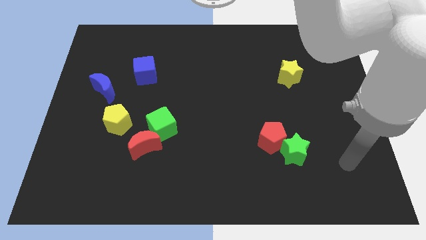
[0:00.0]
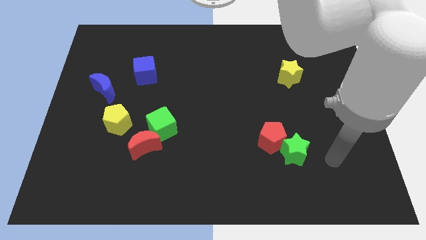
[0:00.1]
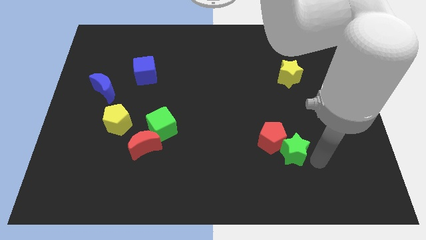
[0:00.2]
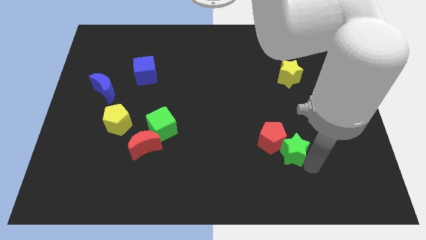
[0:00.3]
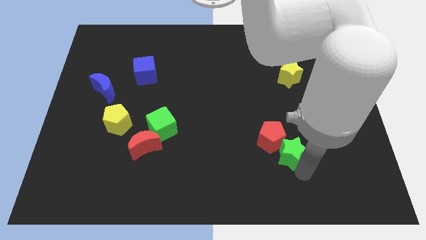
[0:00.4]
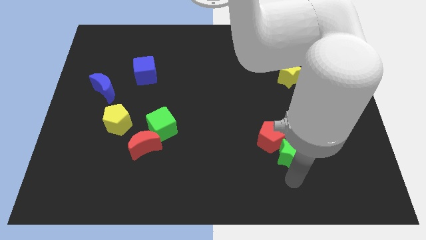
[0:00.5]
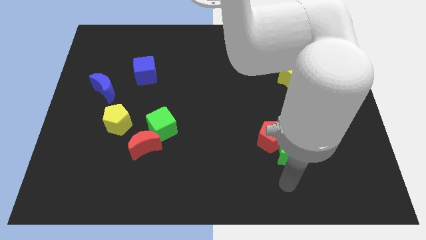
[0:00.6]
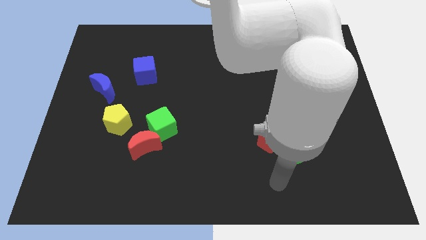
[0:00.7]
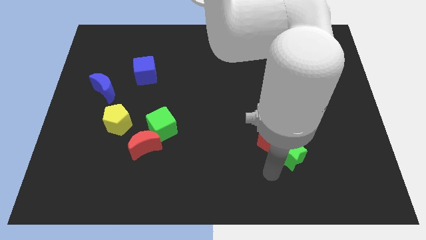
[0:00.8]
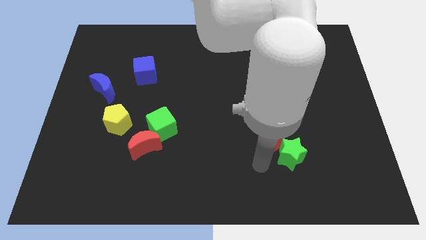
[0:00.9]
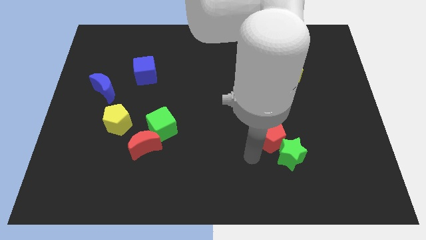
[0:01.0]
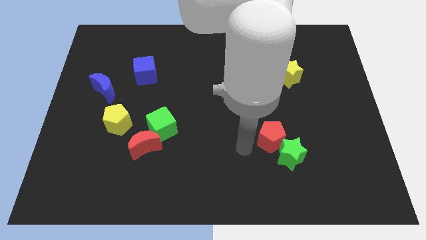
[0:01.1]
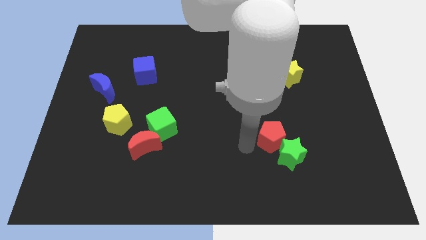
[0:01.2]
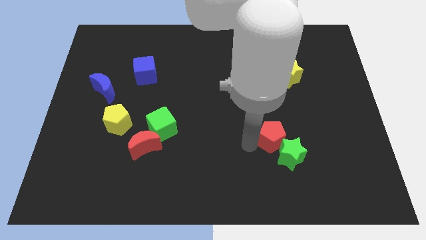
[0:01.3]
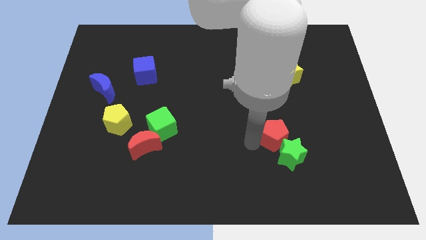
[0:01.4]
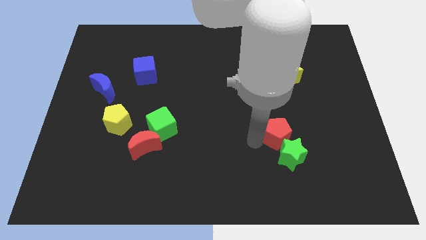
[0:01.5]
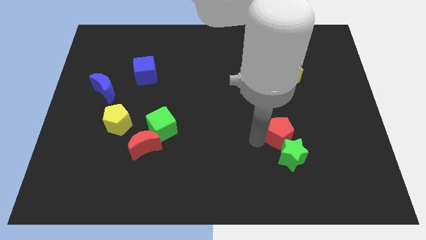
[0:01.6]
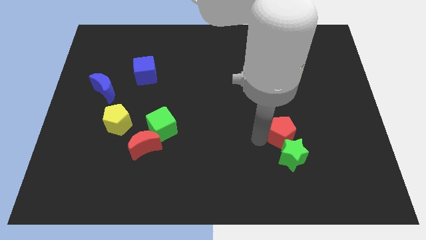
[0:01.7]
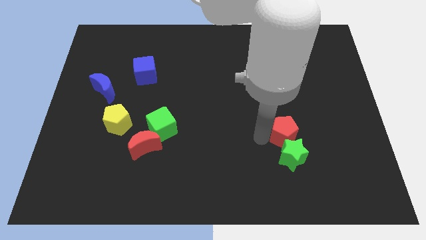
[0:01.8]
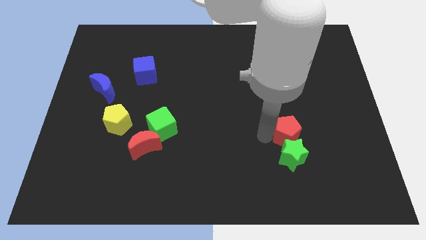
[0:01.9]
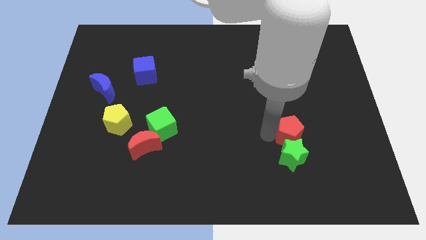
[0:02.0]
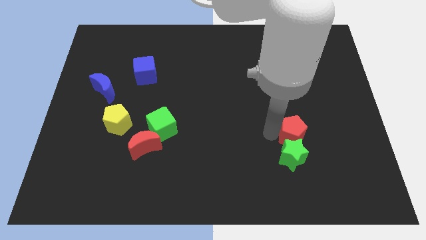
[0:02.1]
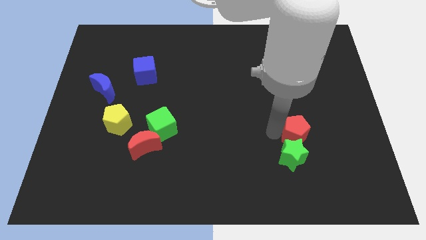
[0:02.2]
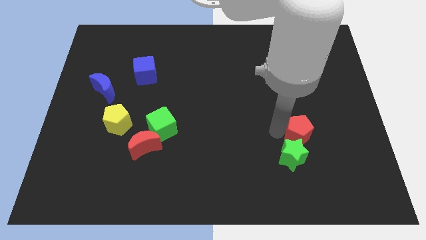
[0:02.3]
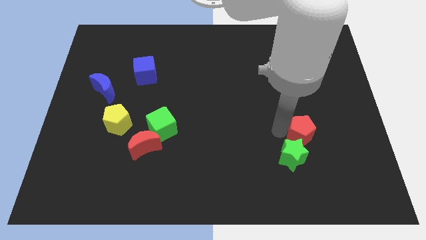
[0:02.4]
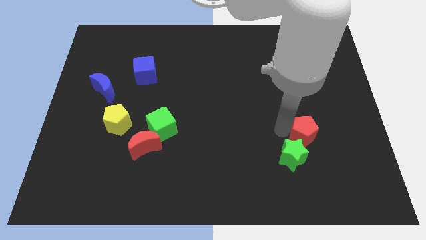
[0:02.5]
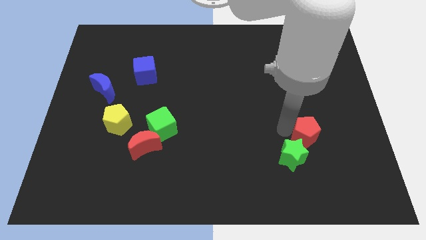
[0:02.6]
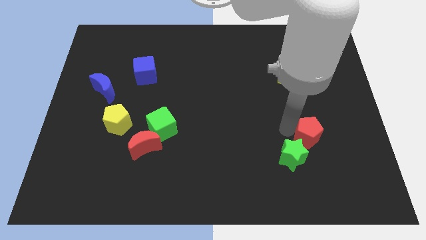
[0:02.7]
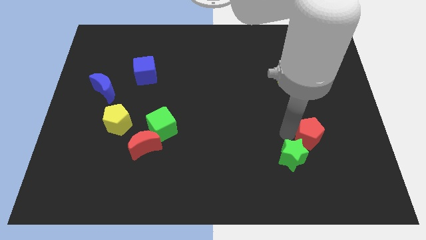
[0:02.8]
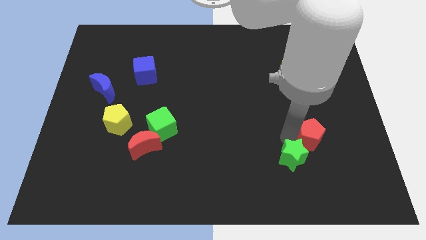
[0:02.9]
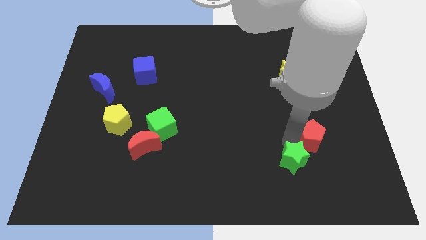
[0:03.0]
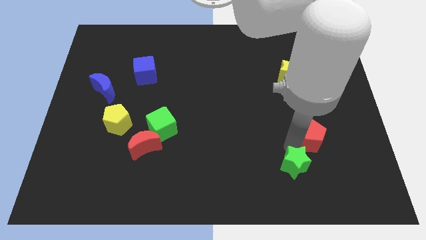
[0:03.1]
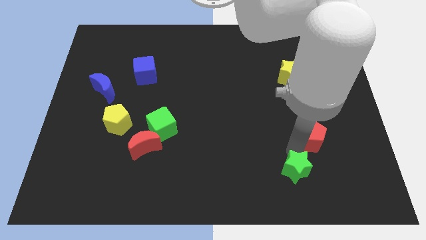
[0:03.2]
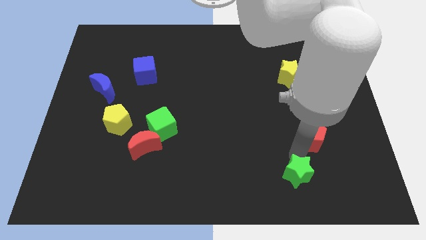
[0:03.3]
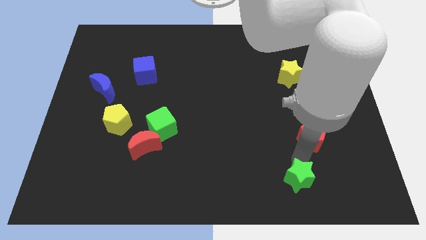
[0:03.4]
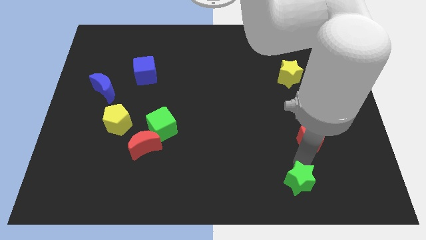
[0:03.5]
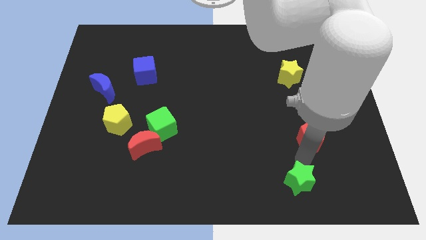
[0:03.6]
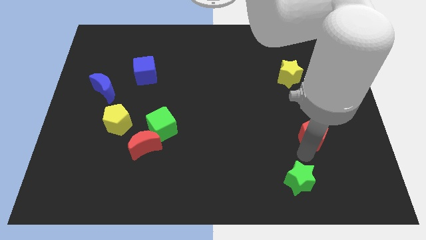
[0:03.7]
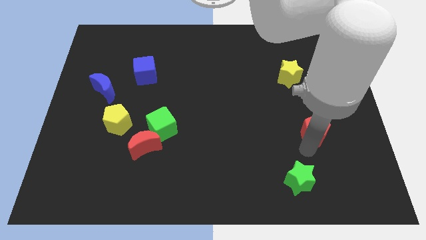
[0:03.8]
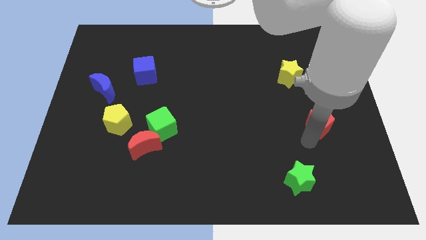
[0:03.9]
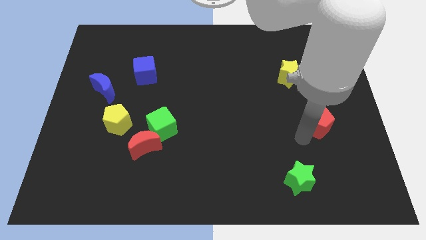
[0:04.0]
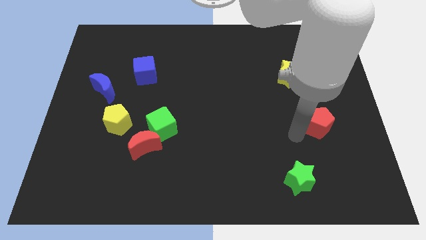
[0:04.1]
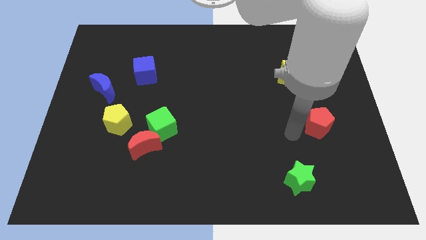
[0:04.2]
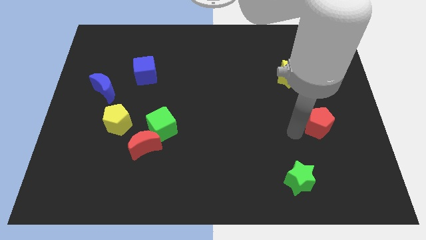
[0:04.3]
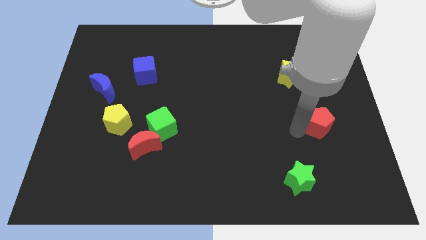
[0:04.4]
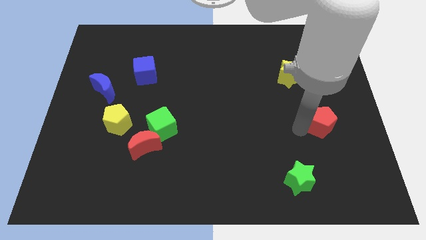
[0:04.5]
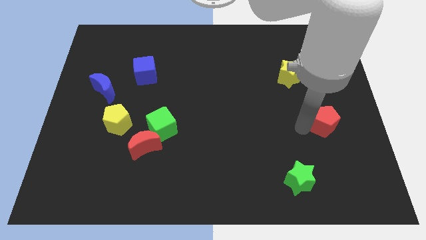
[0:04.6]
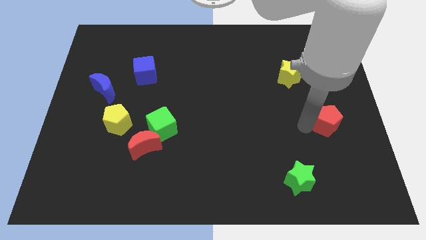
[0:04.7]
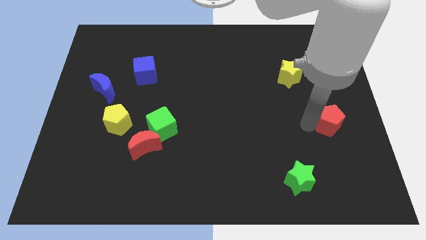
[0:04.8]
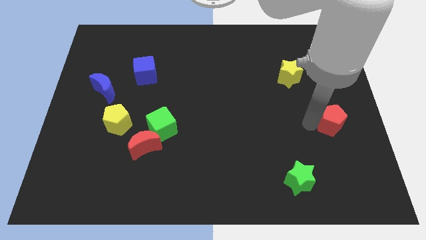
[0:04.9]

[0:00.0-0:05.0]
put the red pentagon to the right side

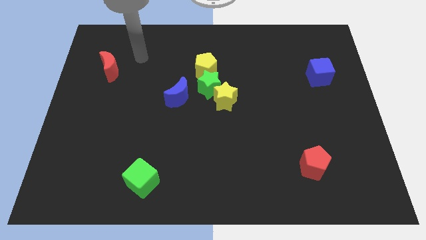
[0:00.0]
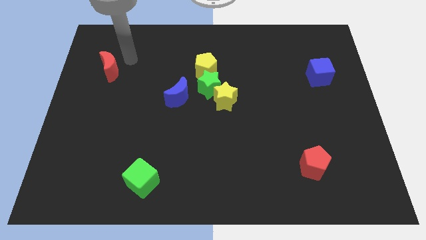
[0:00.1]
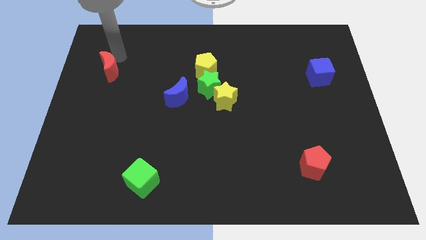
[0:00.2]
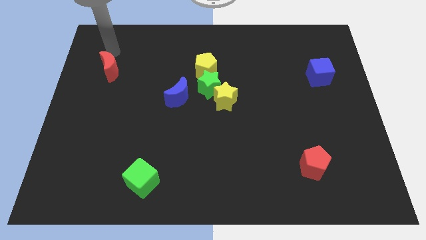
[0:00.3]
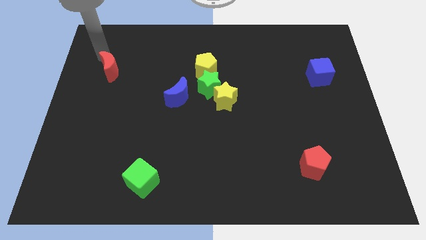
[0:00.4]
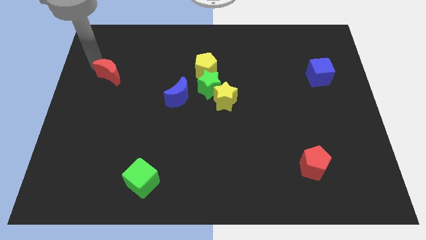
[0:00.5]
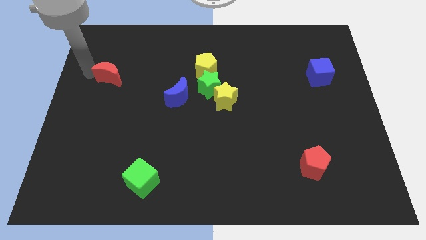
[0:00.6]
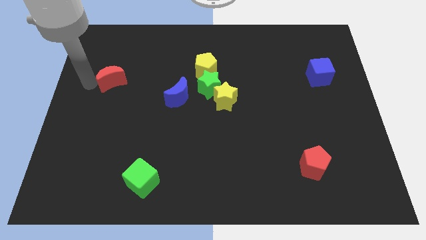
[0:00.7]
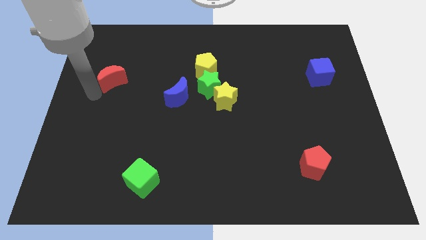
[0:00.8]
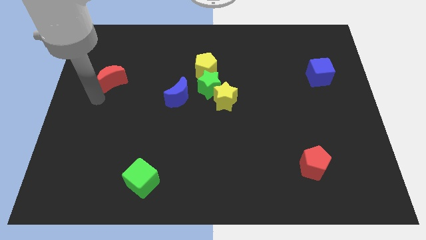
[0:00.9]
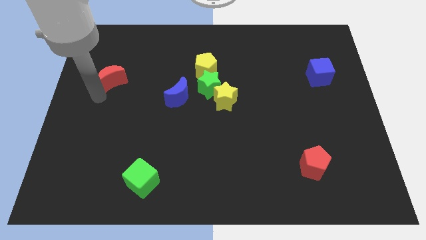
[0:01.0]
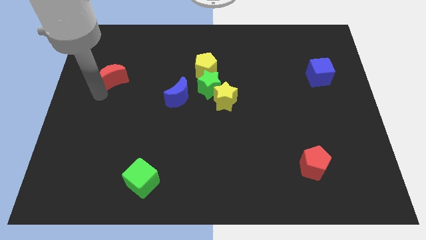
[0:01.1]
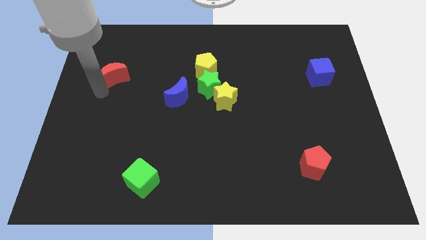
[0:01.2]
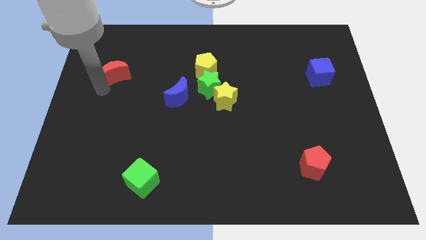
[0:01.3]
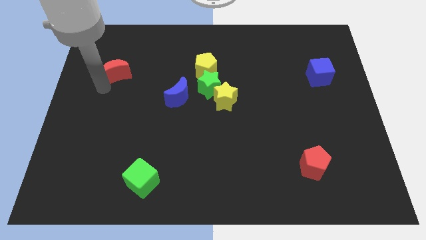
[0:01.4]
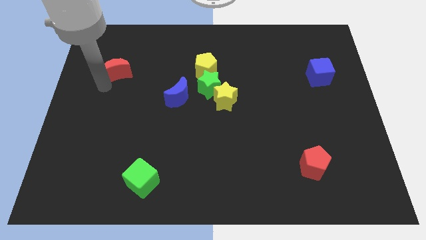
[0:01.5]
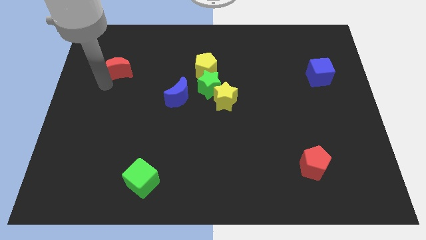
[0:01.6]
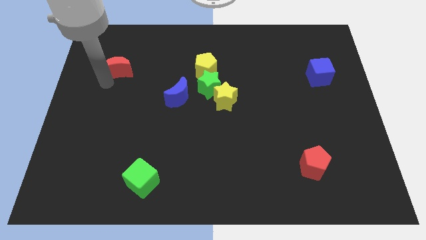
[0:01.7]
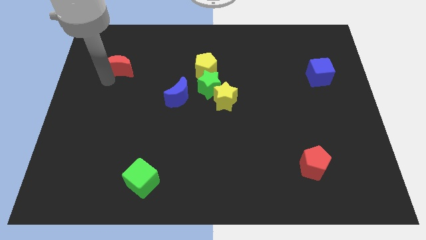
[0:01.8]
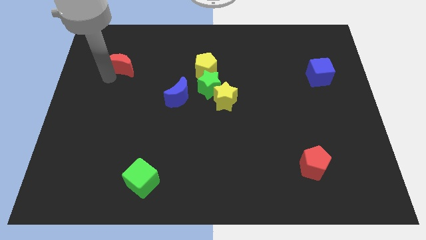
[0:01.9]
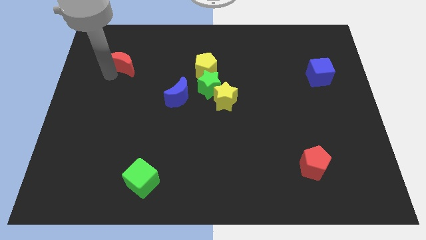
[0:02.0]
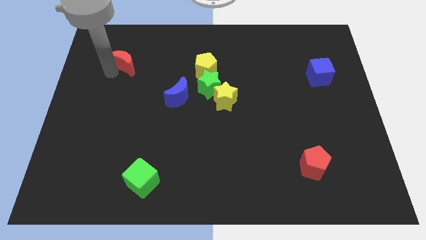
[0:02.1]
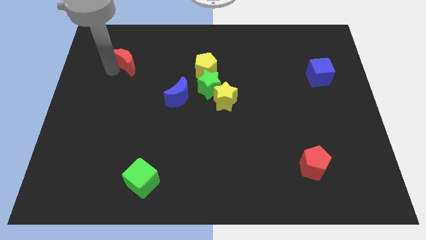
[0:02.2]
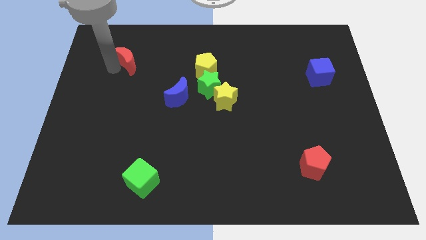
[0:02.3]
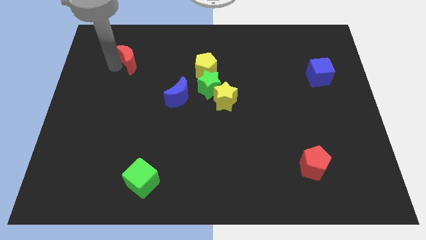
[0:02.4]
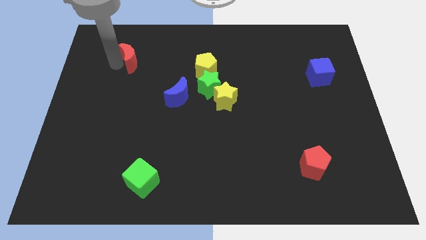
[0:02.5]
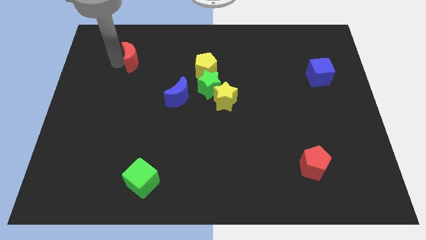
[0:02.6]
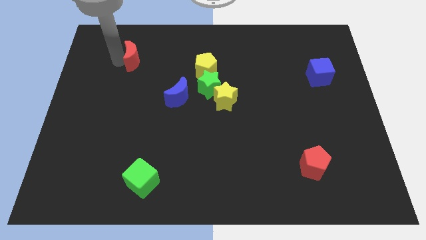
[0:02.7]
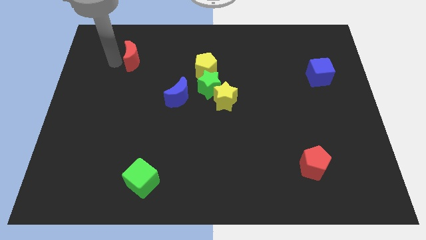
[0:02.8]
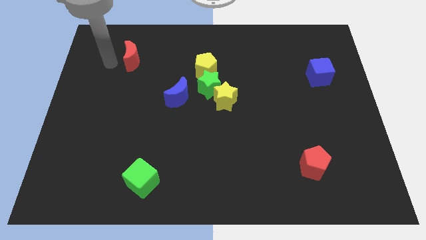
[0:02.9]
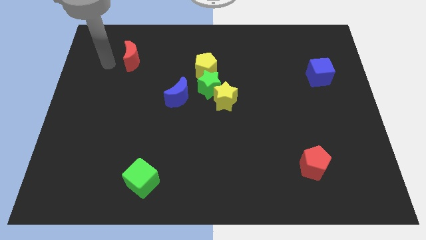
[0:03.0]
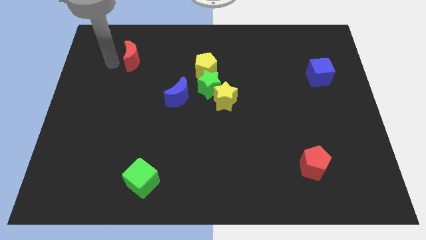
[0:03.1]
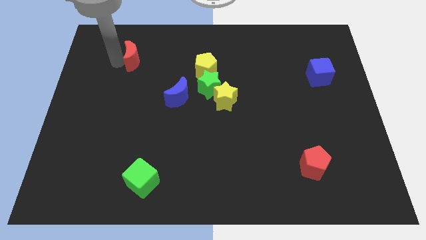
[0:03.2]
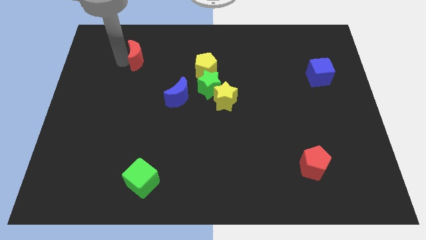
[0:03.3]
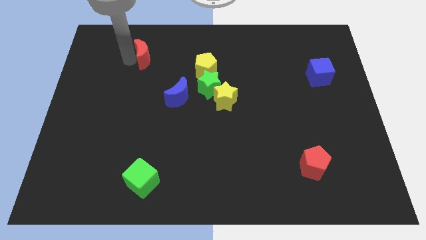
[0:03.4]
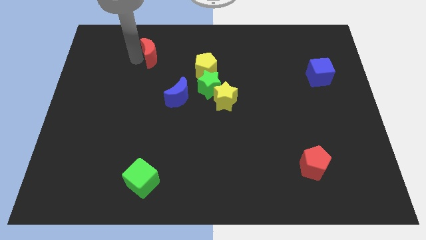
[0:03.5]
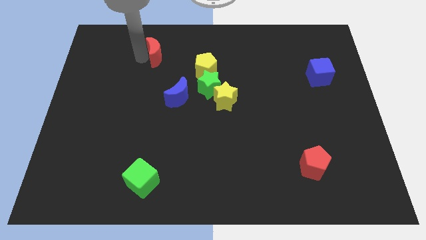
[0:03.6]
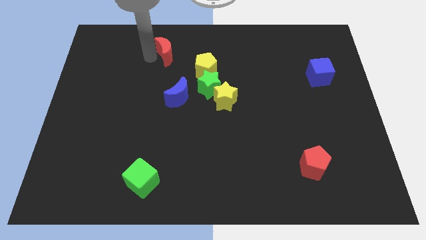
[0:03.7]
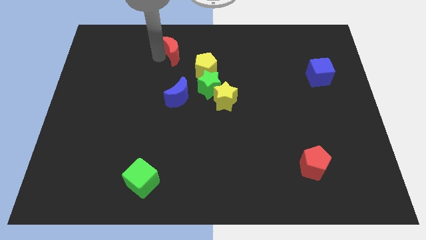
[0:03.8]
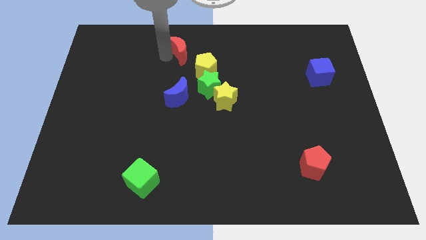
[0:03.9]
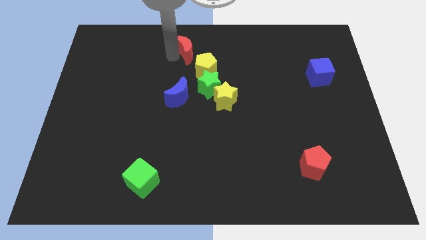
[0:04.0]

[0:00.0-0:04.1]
slide the red moon to the towards your base
